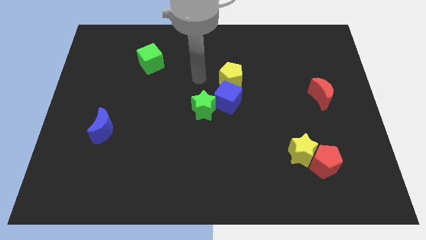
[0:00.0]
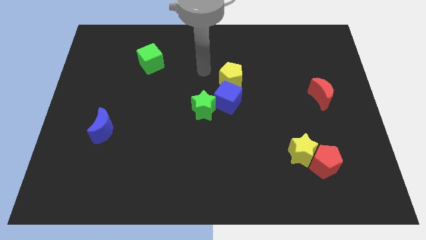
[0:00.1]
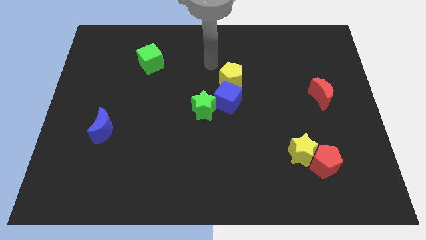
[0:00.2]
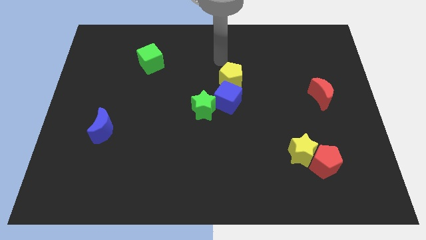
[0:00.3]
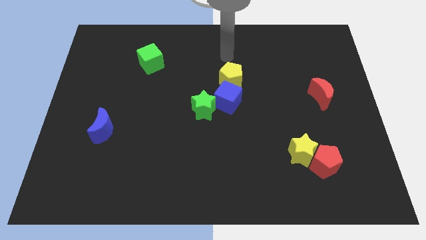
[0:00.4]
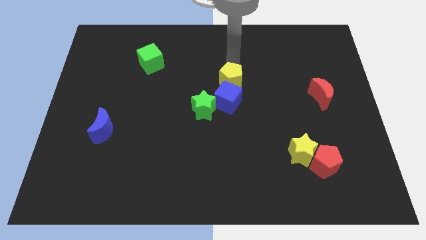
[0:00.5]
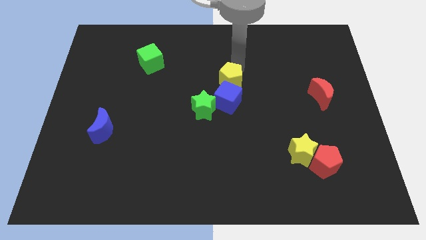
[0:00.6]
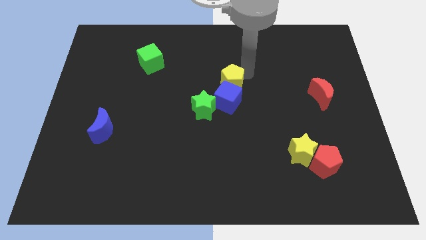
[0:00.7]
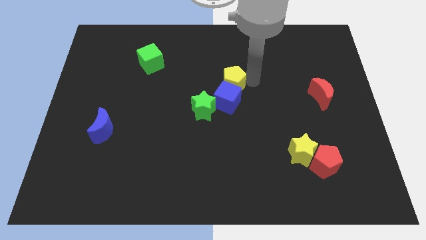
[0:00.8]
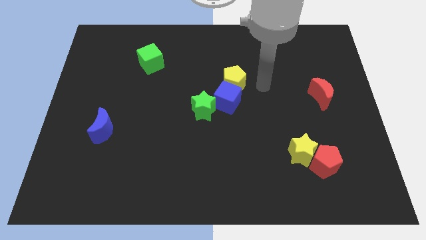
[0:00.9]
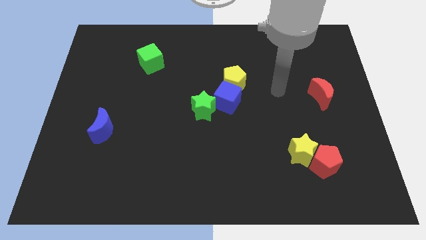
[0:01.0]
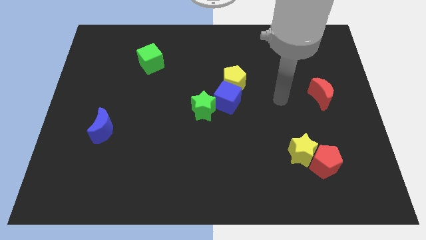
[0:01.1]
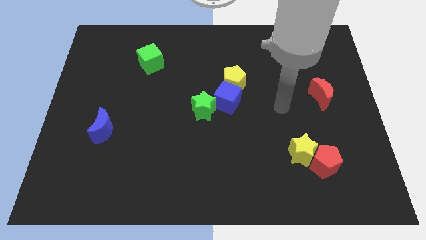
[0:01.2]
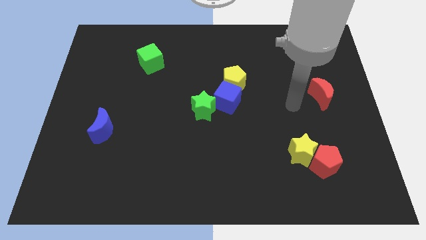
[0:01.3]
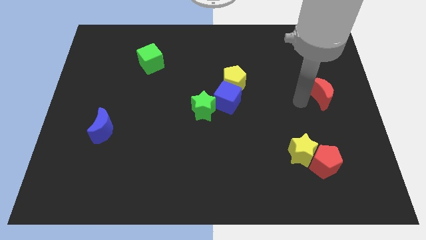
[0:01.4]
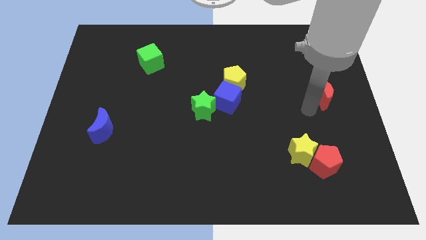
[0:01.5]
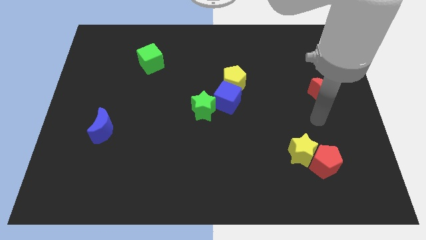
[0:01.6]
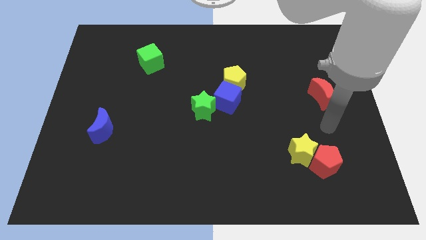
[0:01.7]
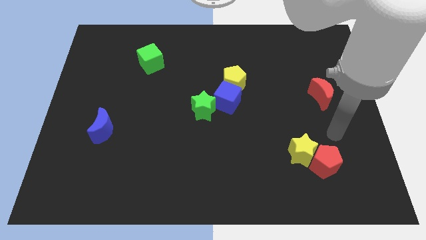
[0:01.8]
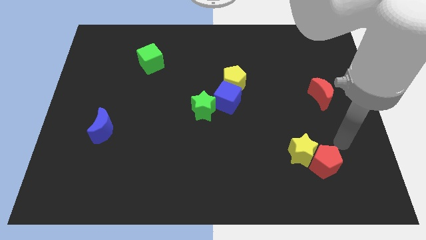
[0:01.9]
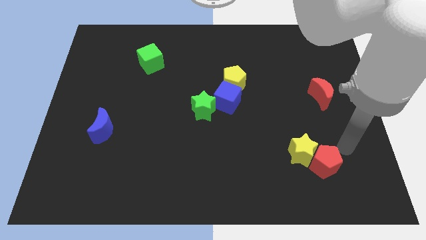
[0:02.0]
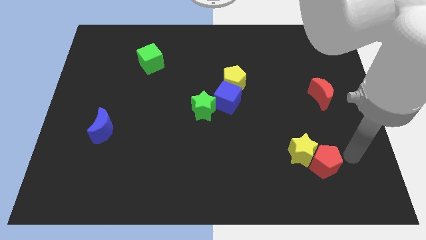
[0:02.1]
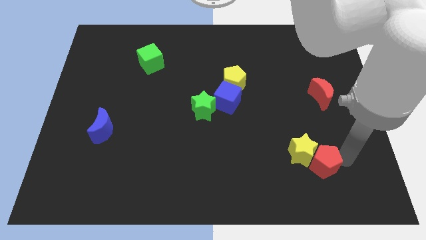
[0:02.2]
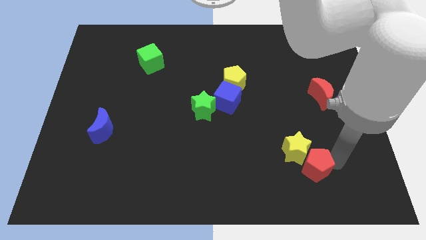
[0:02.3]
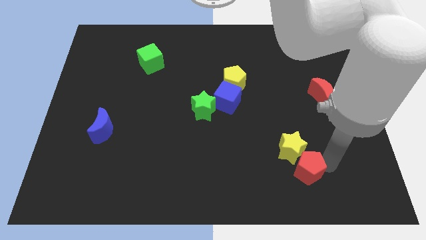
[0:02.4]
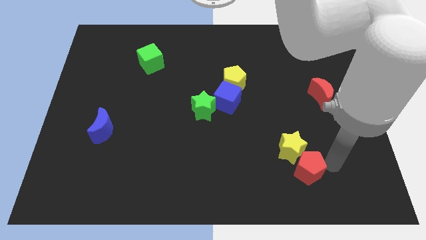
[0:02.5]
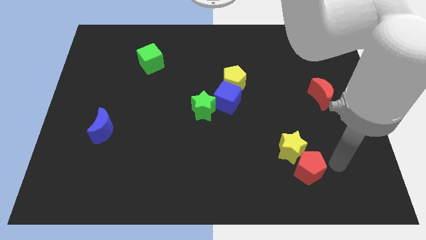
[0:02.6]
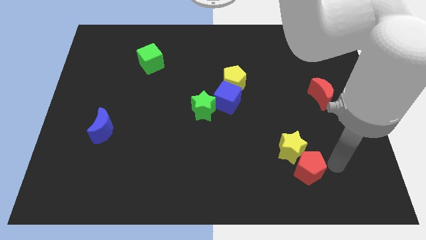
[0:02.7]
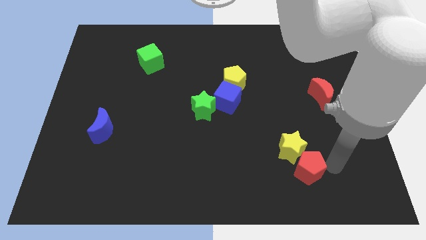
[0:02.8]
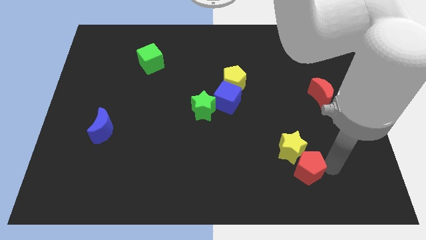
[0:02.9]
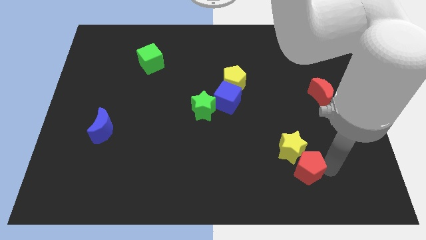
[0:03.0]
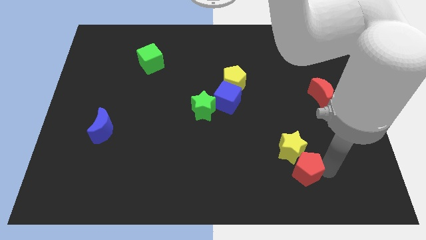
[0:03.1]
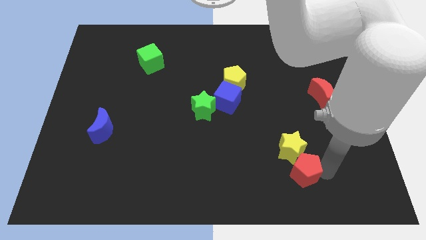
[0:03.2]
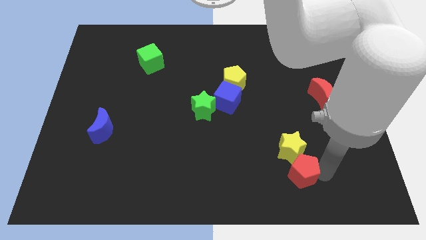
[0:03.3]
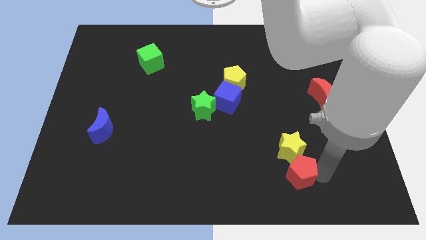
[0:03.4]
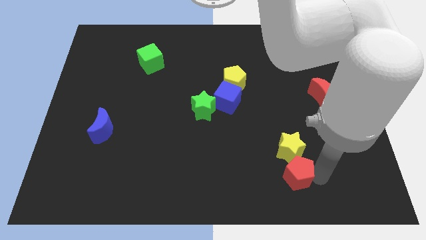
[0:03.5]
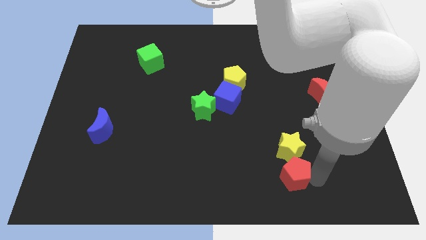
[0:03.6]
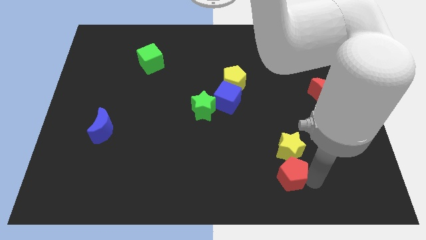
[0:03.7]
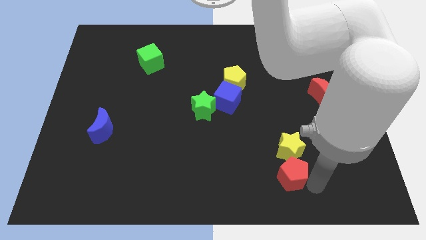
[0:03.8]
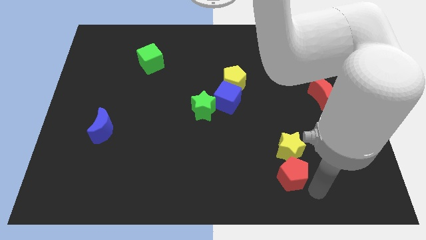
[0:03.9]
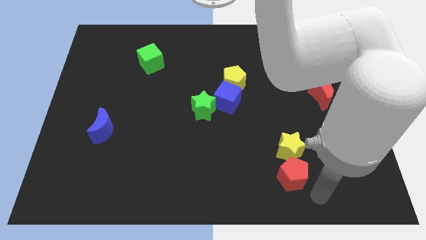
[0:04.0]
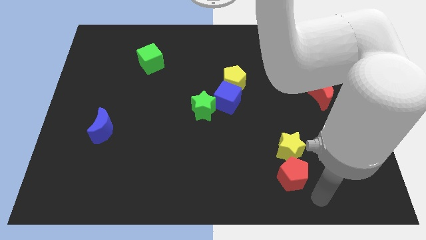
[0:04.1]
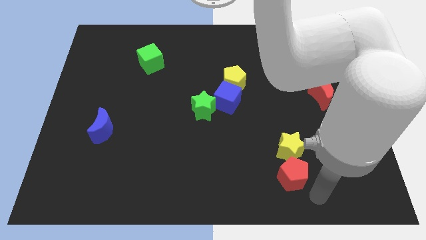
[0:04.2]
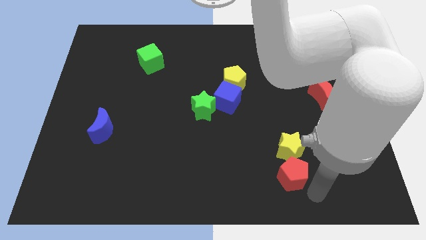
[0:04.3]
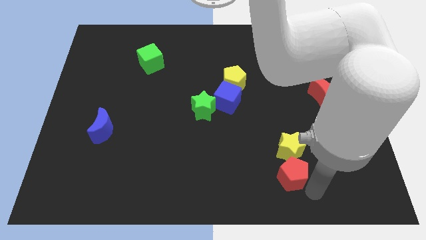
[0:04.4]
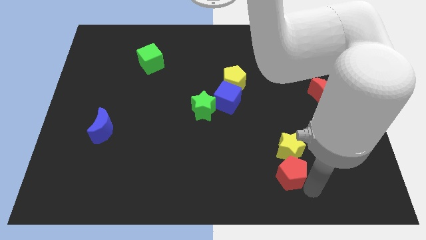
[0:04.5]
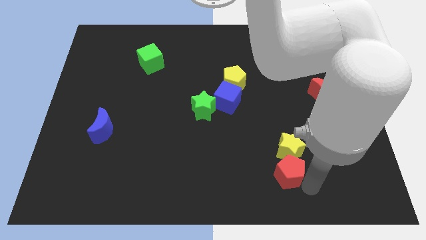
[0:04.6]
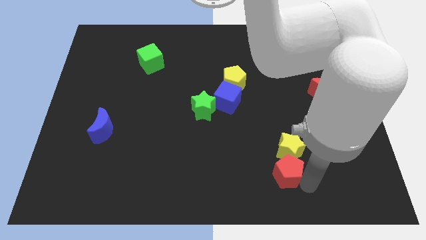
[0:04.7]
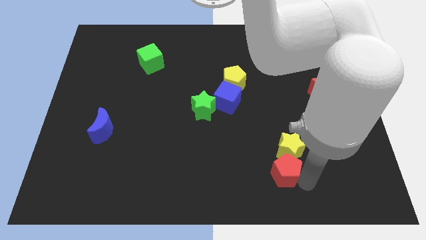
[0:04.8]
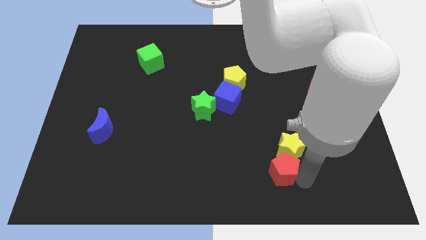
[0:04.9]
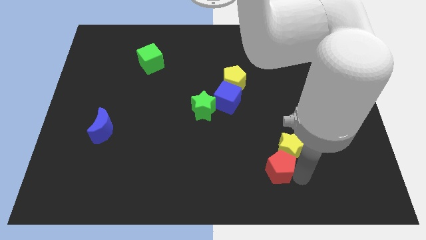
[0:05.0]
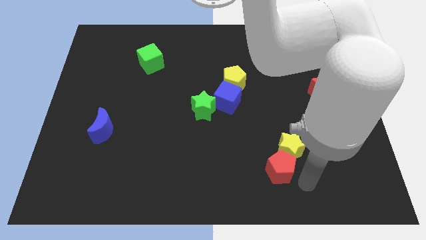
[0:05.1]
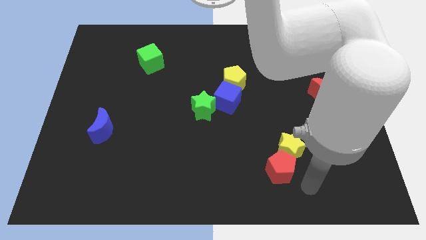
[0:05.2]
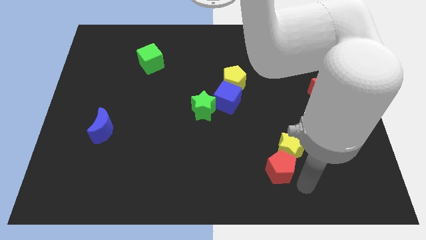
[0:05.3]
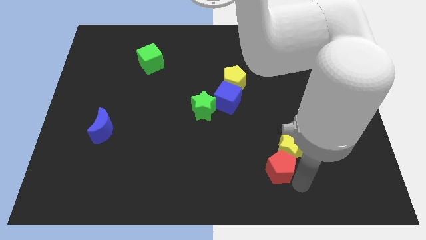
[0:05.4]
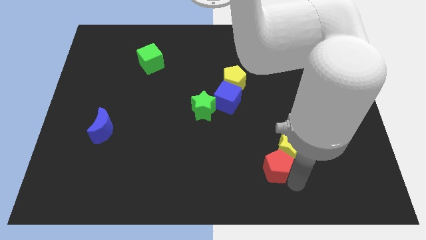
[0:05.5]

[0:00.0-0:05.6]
move the red pentagon to the left side of the yellow star

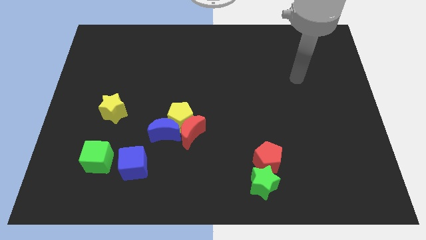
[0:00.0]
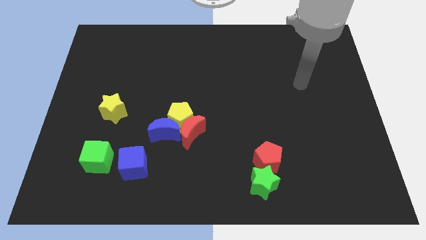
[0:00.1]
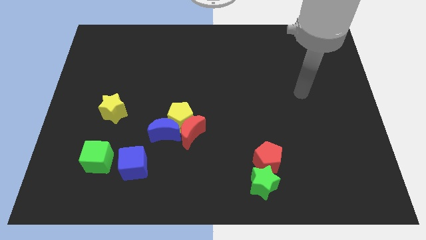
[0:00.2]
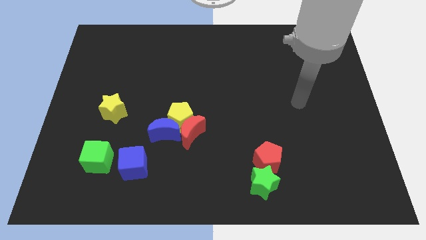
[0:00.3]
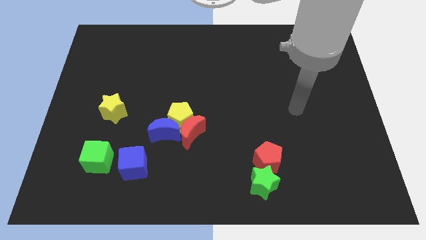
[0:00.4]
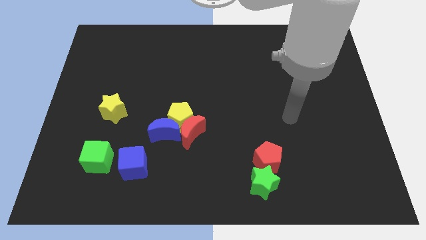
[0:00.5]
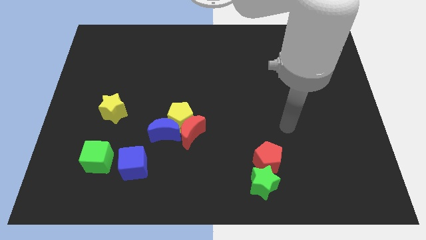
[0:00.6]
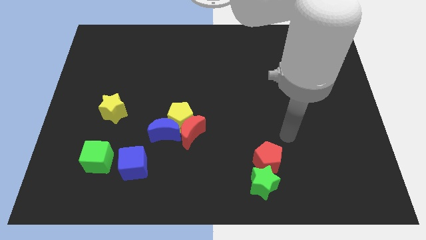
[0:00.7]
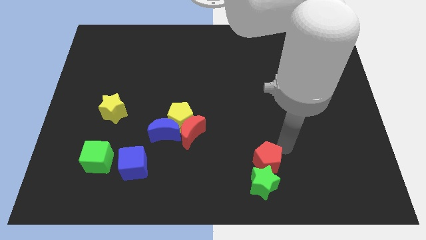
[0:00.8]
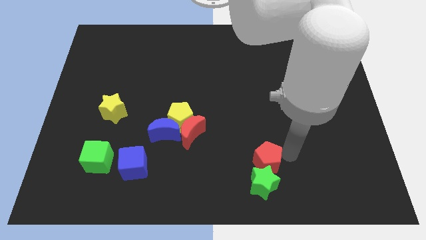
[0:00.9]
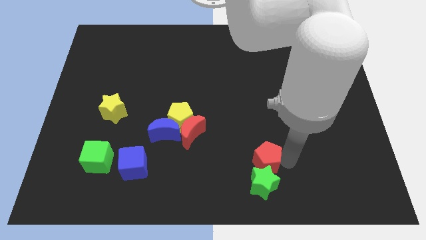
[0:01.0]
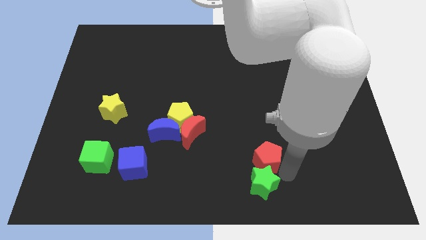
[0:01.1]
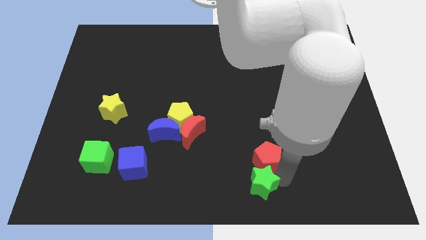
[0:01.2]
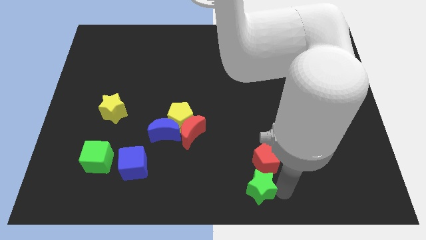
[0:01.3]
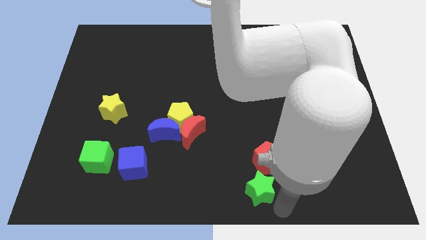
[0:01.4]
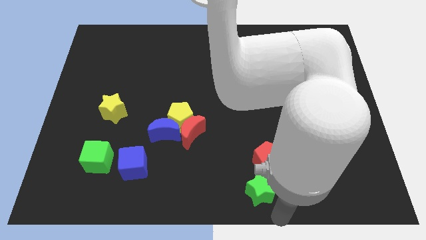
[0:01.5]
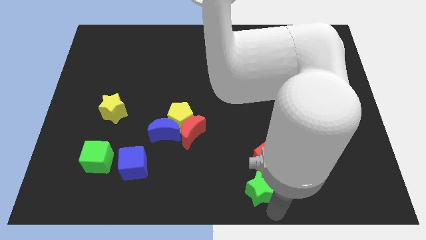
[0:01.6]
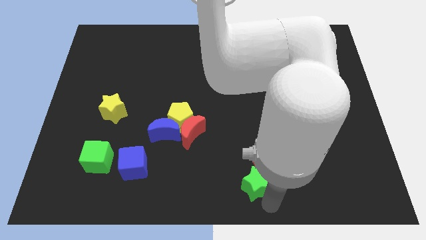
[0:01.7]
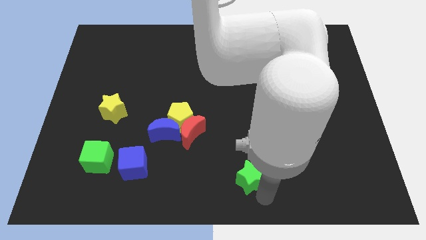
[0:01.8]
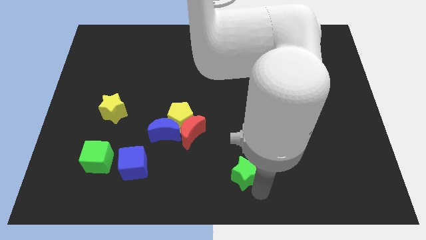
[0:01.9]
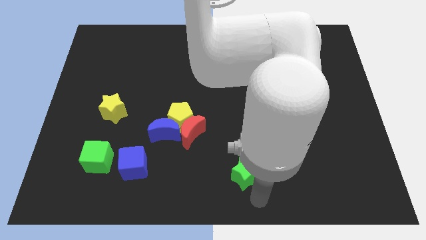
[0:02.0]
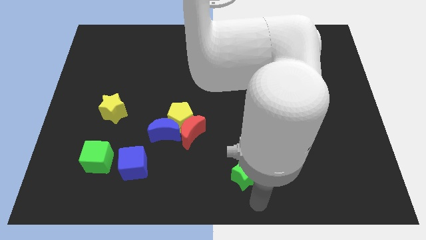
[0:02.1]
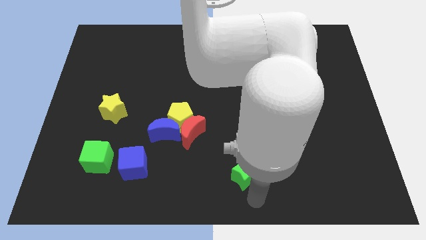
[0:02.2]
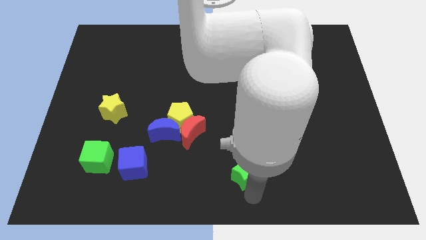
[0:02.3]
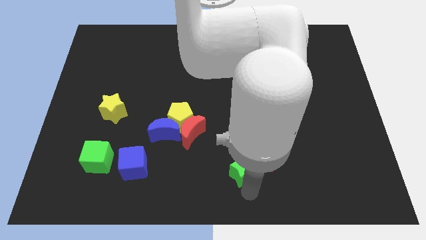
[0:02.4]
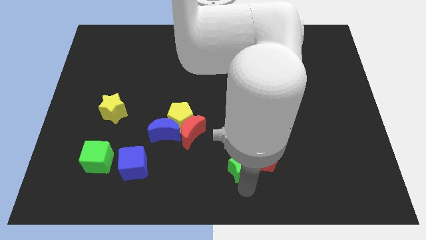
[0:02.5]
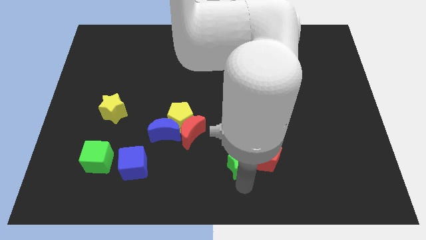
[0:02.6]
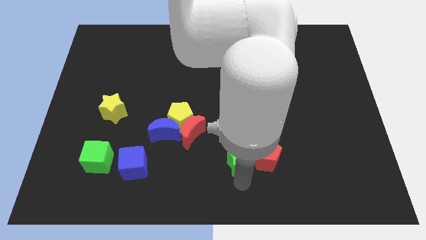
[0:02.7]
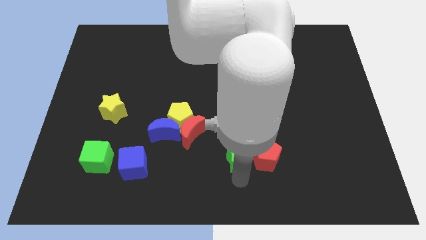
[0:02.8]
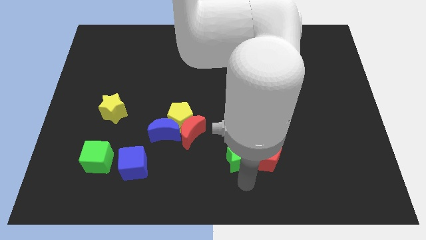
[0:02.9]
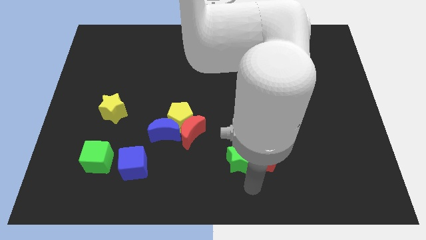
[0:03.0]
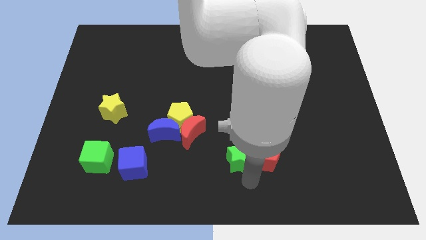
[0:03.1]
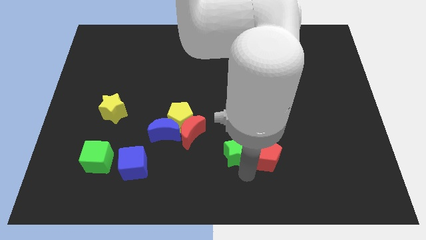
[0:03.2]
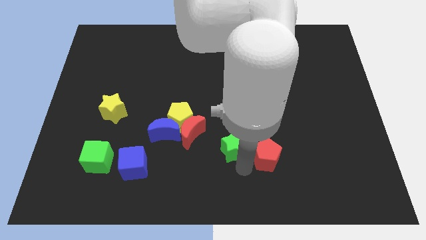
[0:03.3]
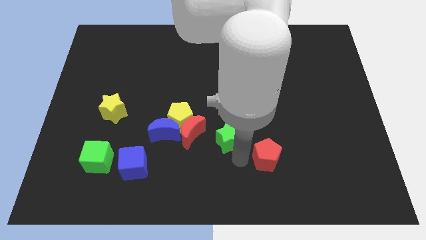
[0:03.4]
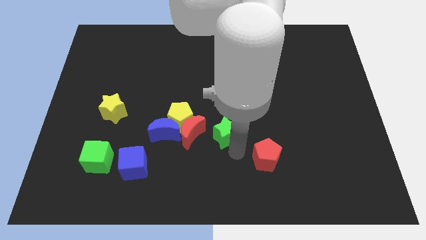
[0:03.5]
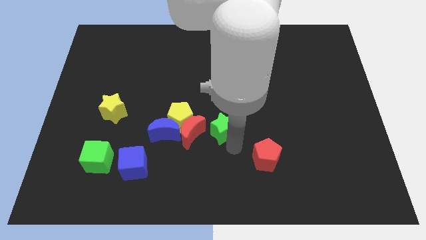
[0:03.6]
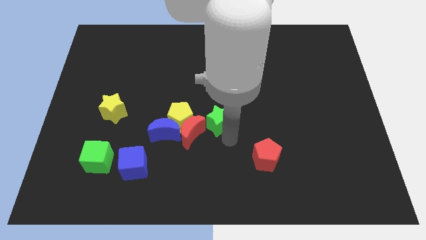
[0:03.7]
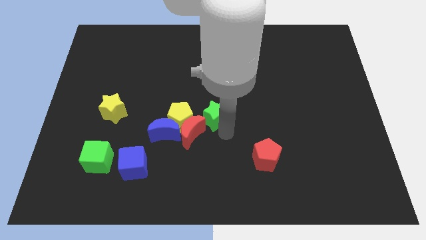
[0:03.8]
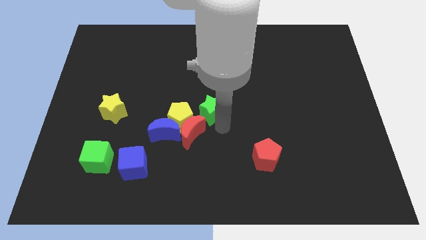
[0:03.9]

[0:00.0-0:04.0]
move the green star diagonally up and to the right of the yellow pentagon
